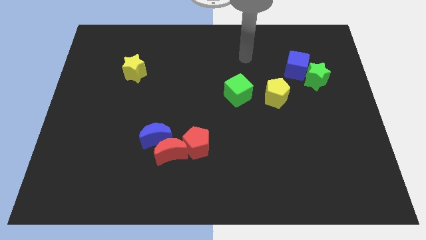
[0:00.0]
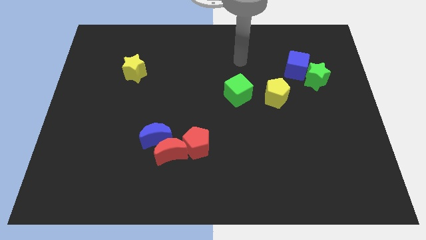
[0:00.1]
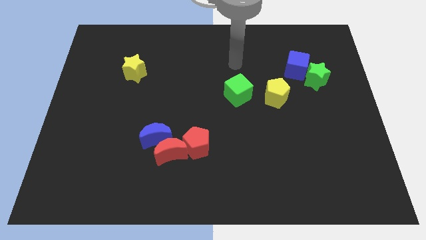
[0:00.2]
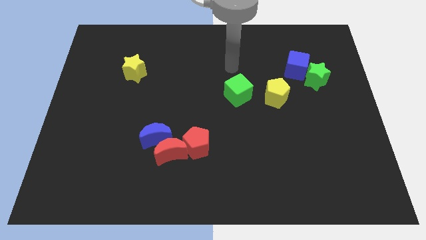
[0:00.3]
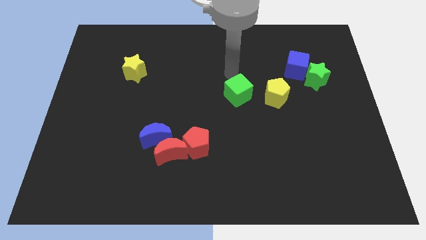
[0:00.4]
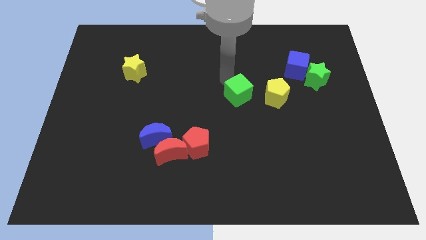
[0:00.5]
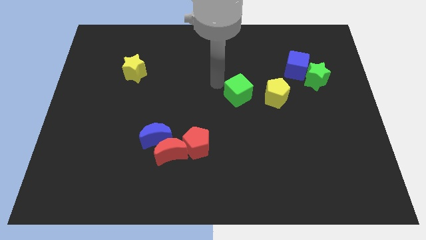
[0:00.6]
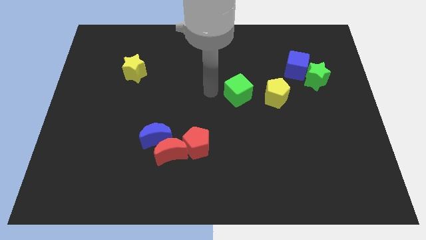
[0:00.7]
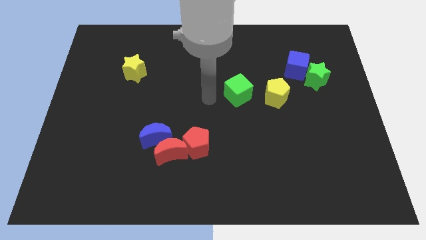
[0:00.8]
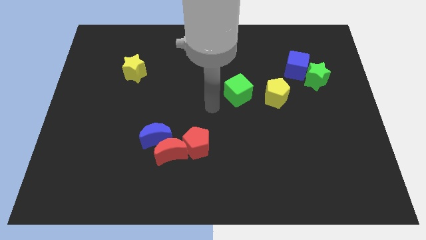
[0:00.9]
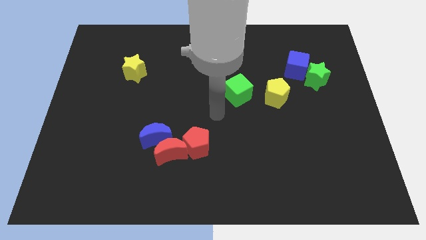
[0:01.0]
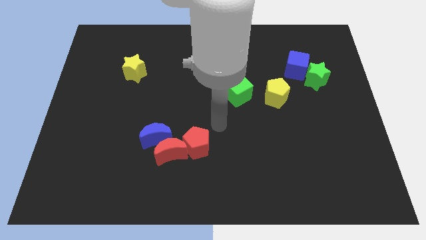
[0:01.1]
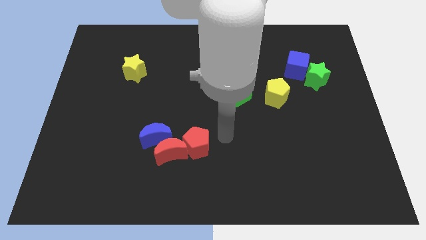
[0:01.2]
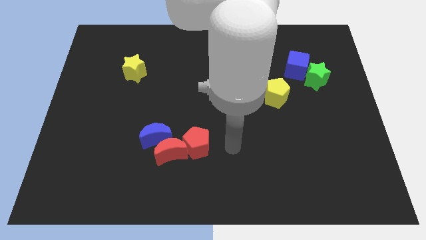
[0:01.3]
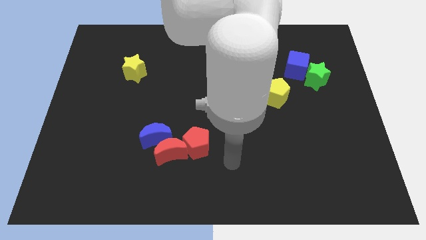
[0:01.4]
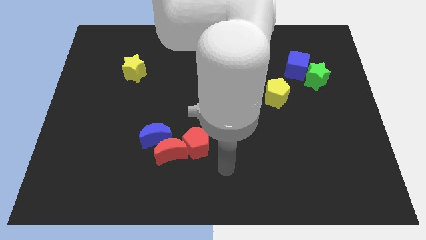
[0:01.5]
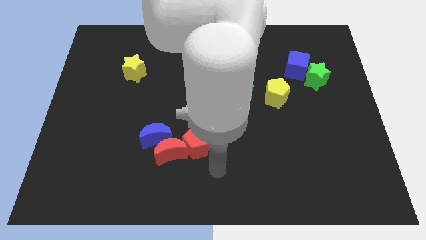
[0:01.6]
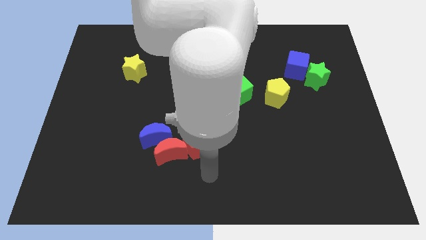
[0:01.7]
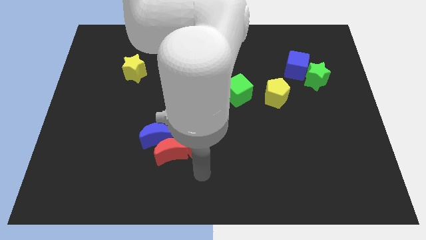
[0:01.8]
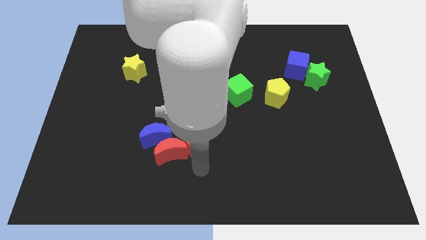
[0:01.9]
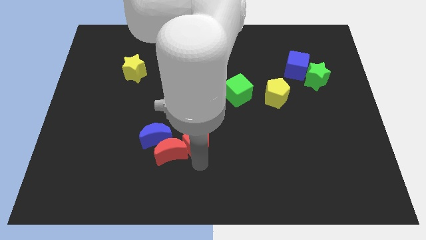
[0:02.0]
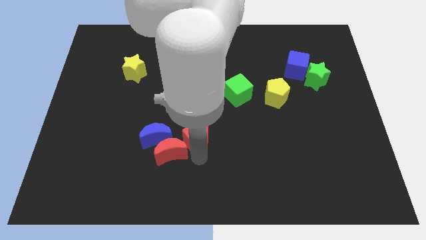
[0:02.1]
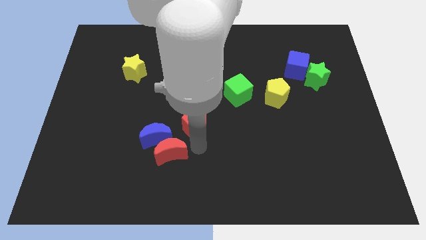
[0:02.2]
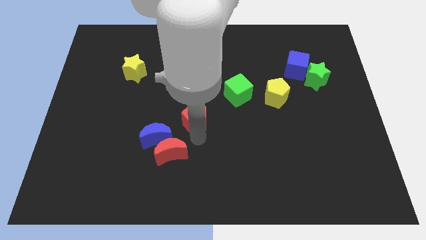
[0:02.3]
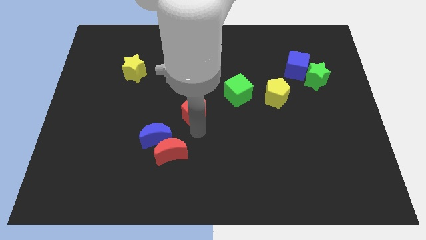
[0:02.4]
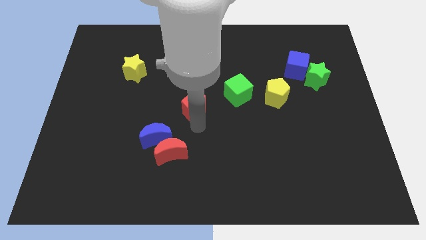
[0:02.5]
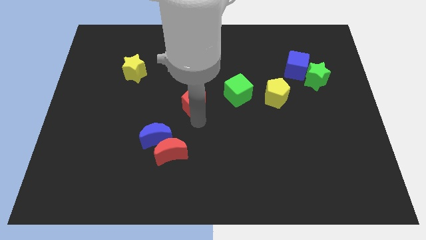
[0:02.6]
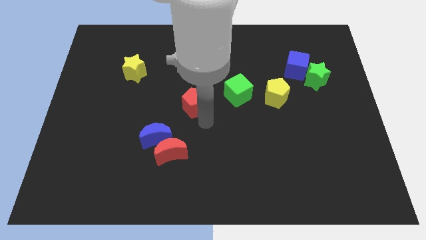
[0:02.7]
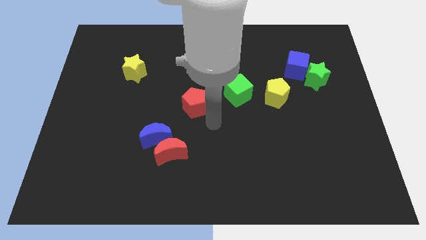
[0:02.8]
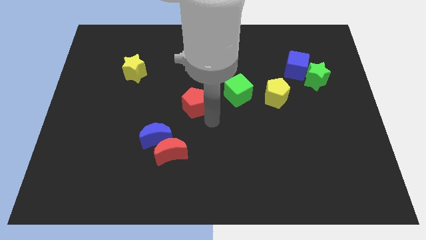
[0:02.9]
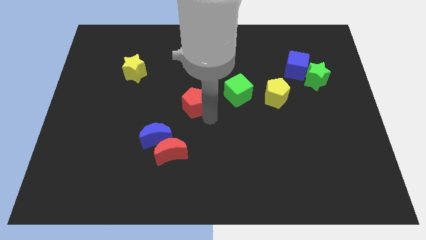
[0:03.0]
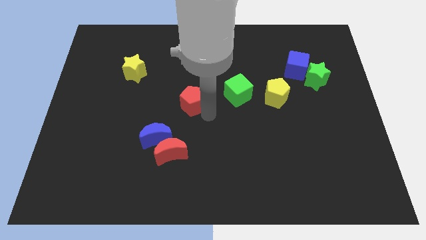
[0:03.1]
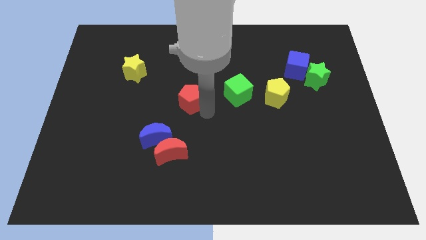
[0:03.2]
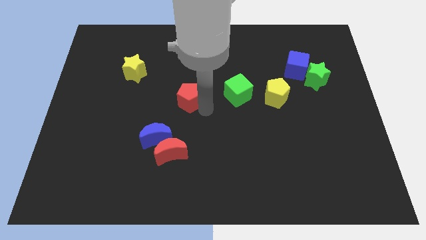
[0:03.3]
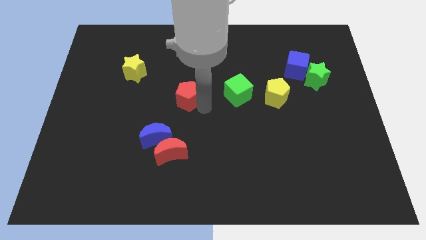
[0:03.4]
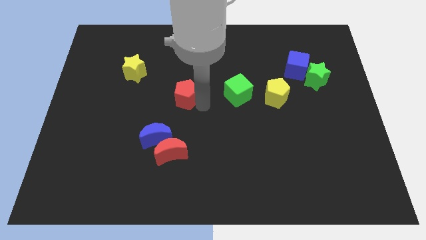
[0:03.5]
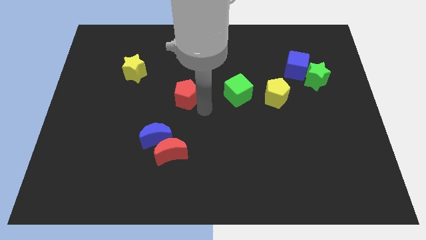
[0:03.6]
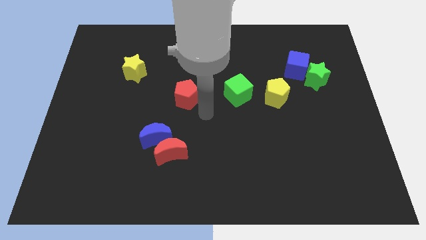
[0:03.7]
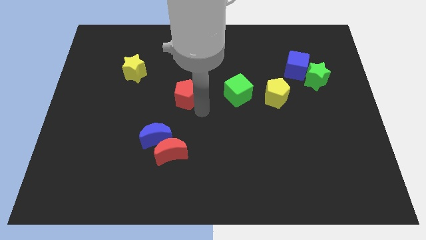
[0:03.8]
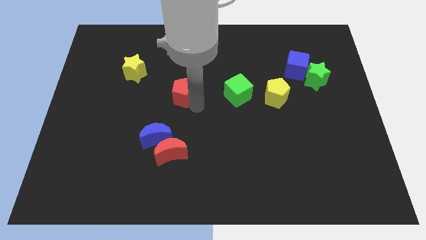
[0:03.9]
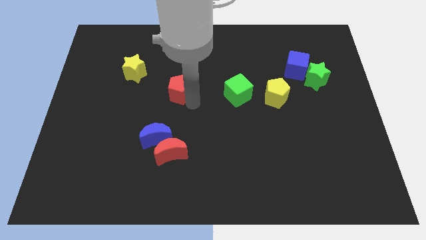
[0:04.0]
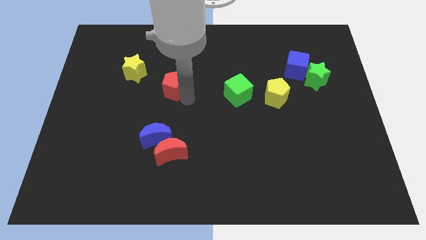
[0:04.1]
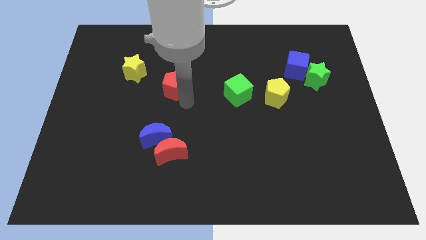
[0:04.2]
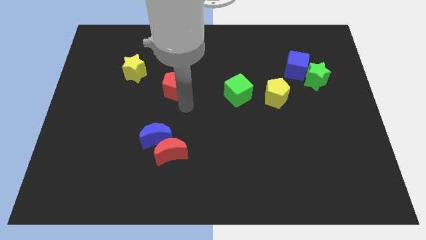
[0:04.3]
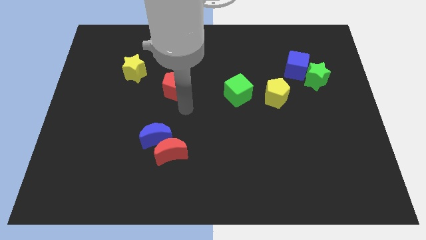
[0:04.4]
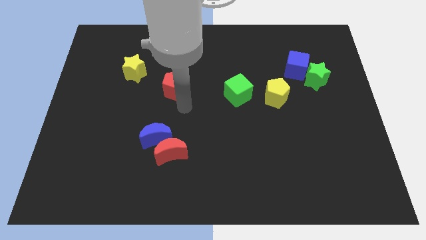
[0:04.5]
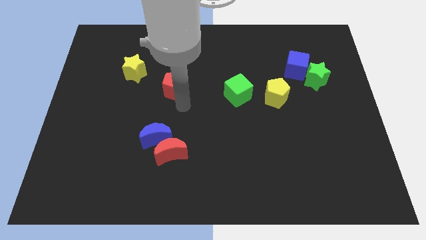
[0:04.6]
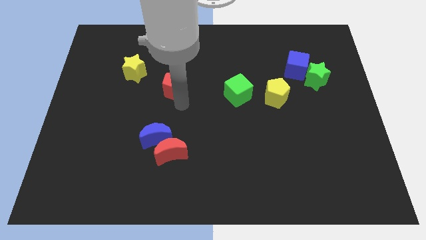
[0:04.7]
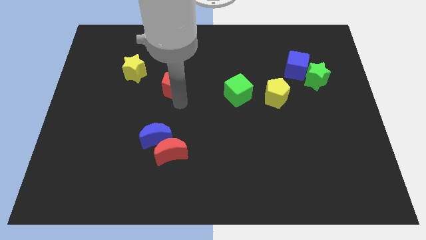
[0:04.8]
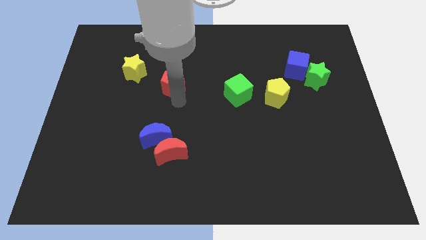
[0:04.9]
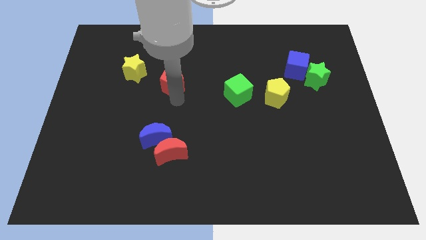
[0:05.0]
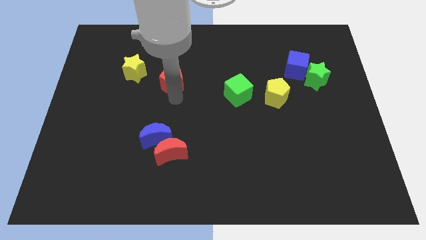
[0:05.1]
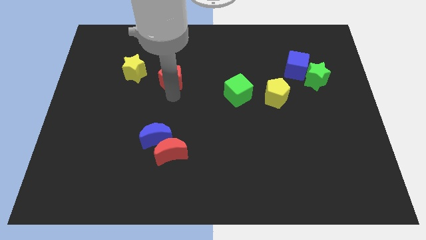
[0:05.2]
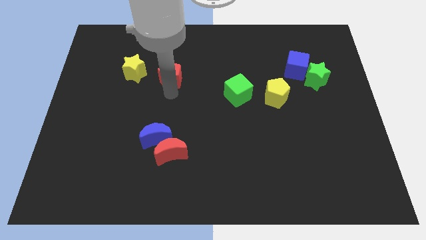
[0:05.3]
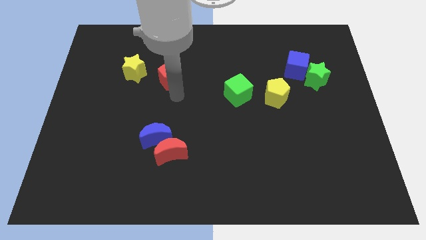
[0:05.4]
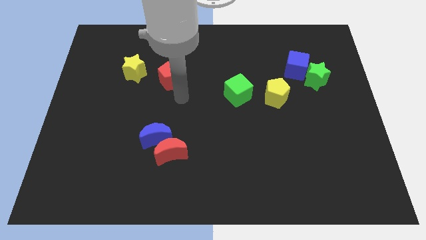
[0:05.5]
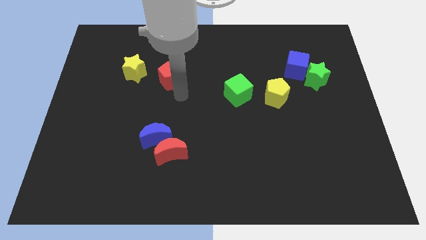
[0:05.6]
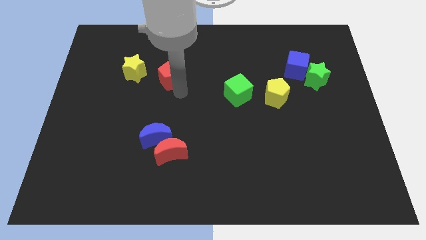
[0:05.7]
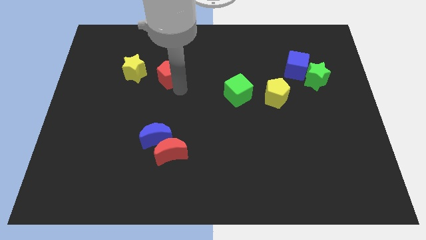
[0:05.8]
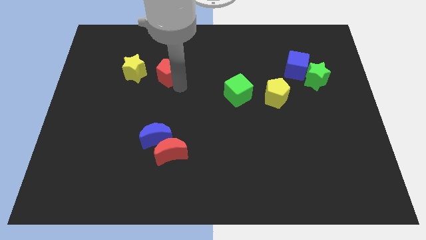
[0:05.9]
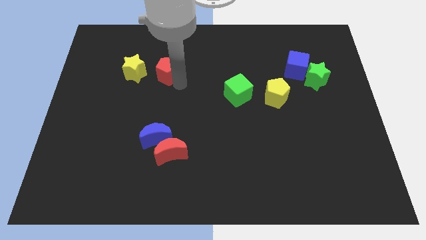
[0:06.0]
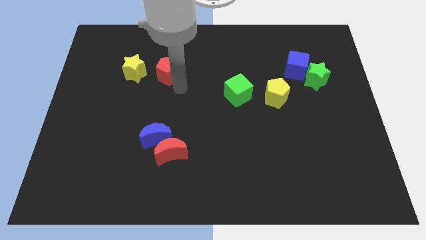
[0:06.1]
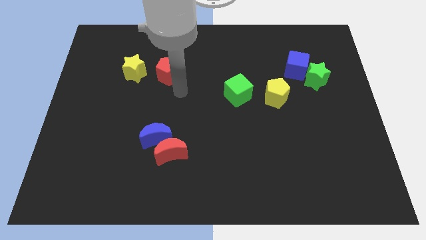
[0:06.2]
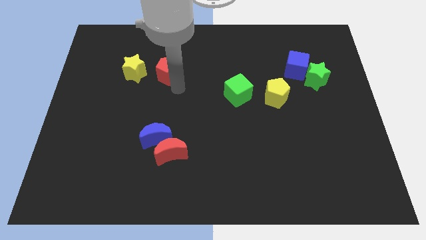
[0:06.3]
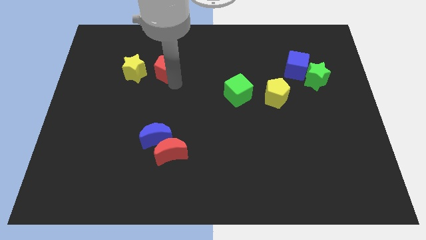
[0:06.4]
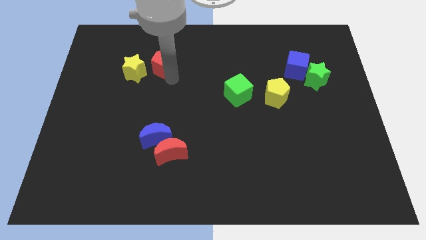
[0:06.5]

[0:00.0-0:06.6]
move the red pentagon to the top right side of the yellow star

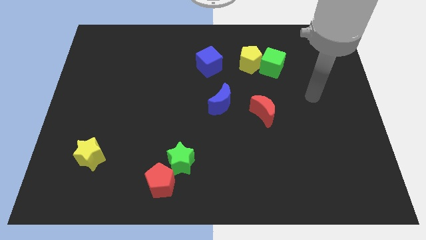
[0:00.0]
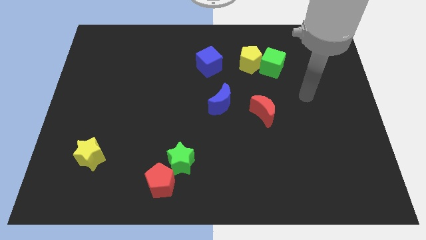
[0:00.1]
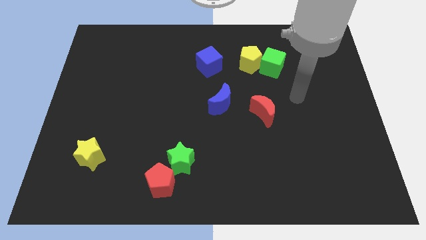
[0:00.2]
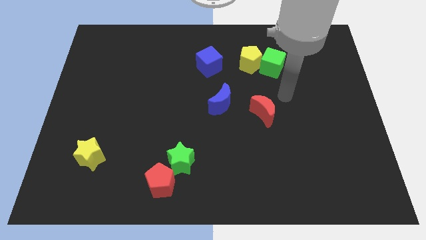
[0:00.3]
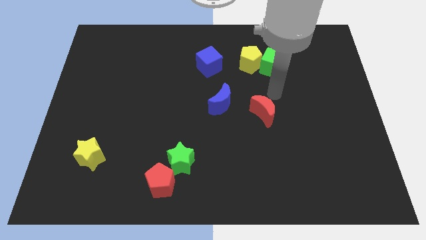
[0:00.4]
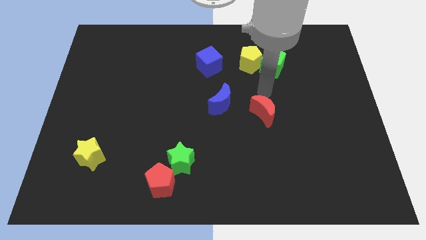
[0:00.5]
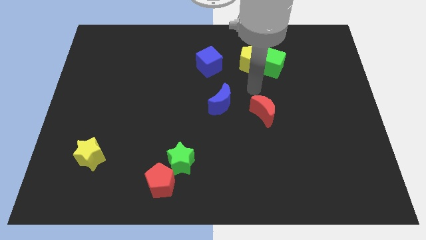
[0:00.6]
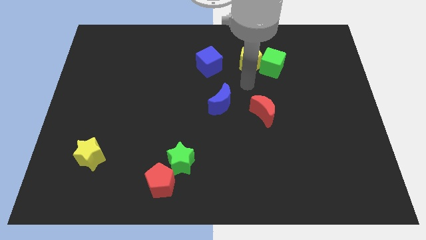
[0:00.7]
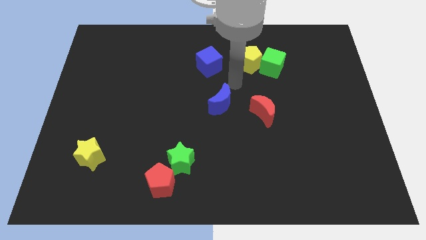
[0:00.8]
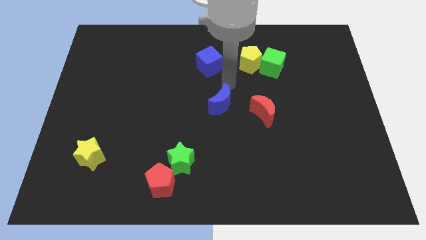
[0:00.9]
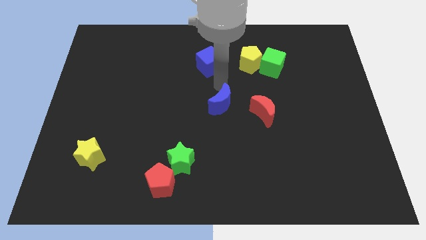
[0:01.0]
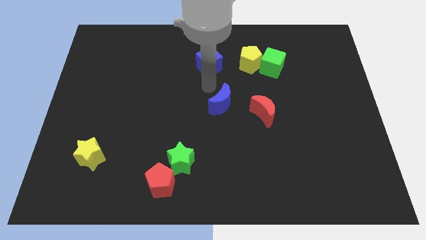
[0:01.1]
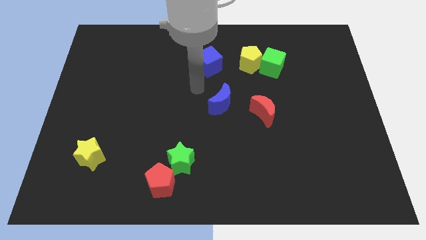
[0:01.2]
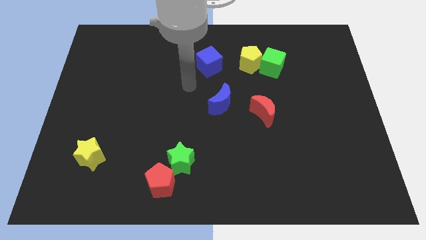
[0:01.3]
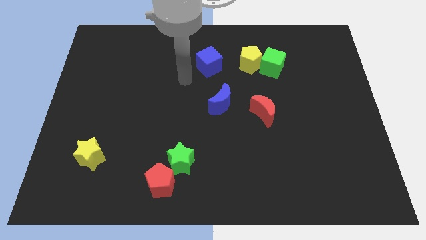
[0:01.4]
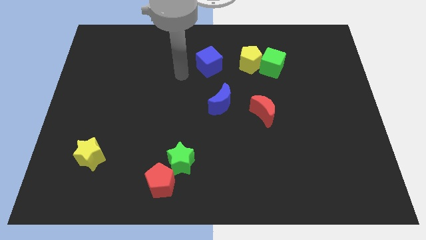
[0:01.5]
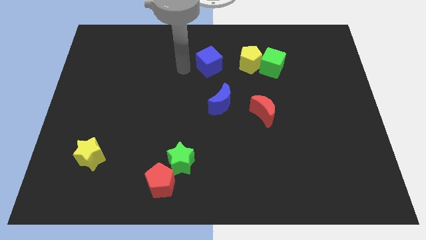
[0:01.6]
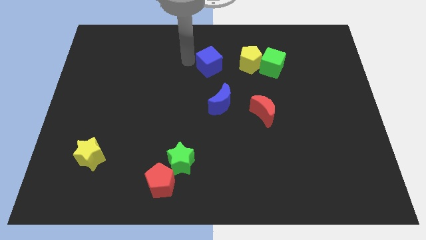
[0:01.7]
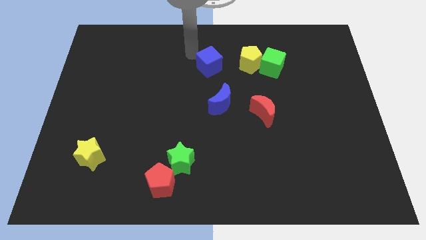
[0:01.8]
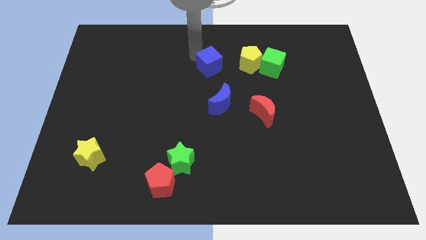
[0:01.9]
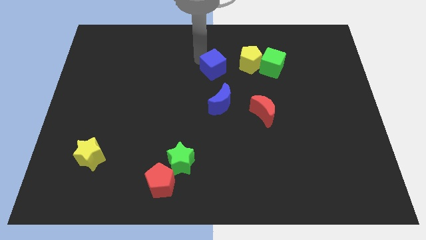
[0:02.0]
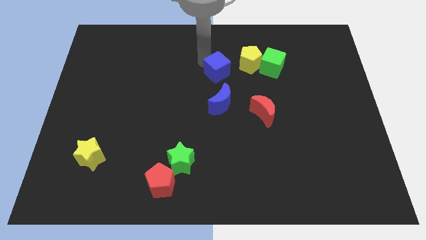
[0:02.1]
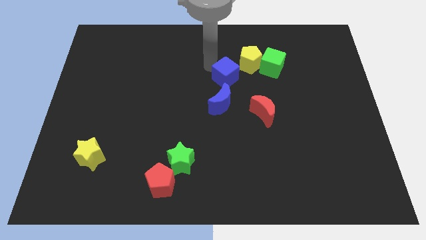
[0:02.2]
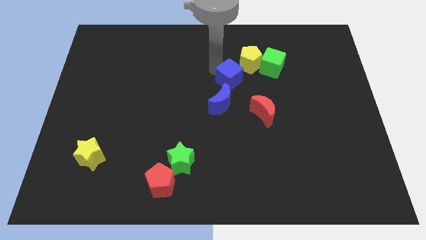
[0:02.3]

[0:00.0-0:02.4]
slide the blue cube to the top right of the blue moon
